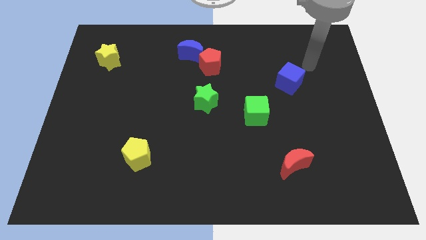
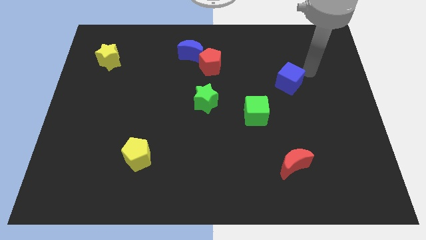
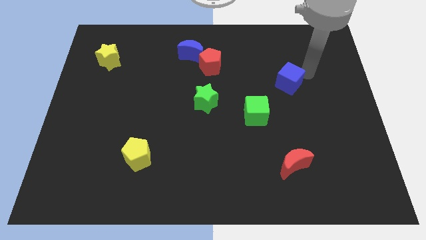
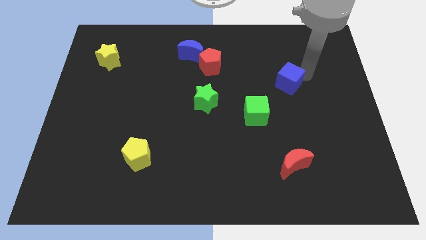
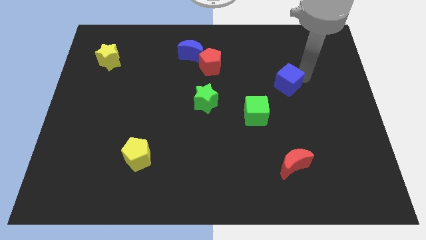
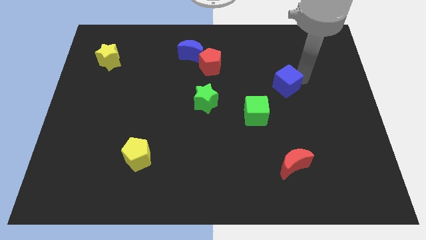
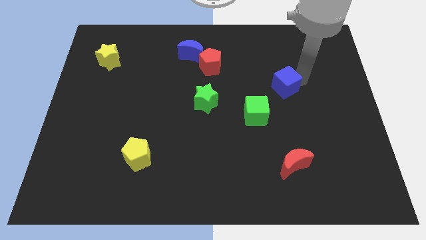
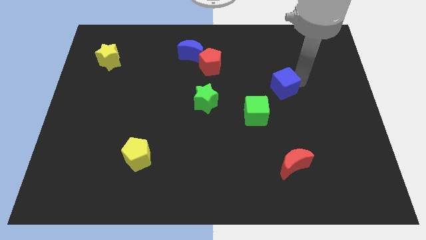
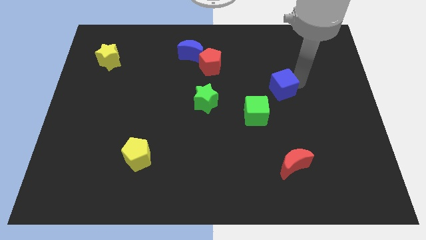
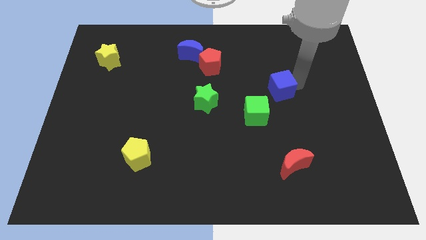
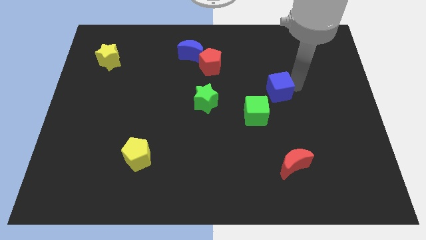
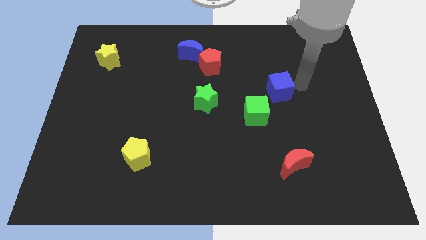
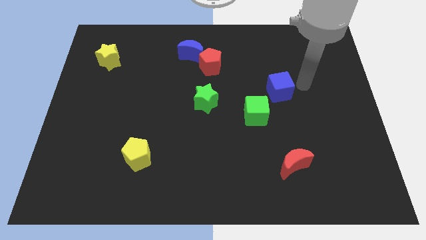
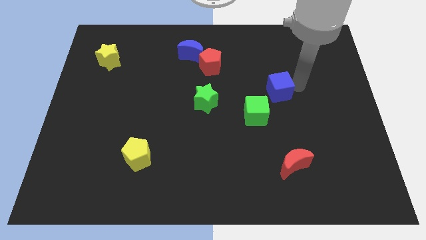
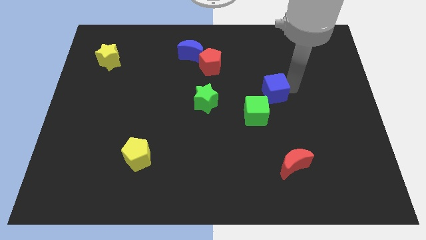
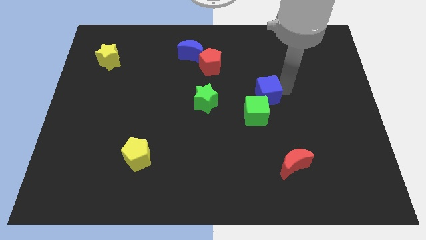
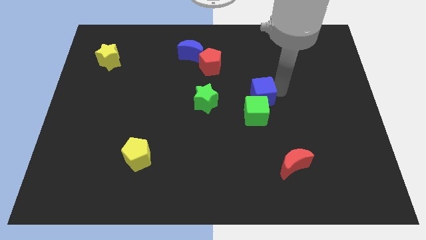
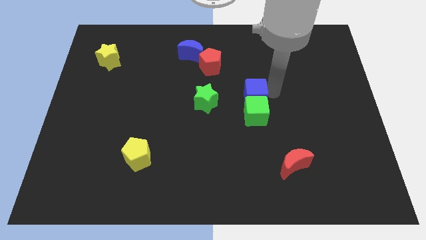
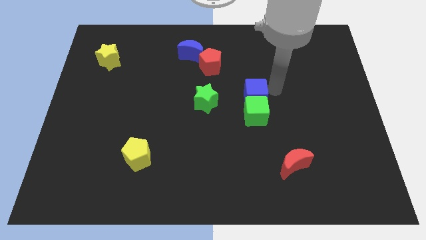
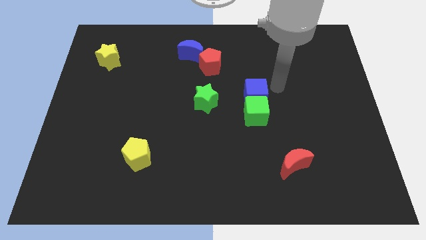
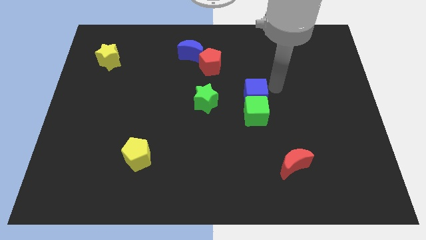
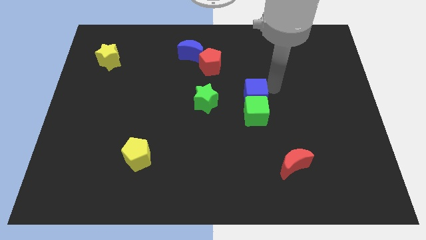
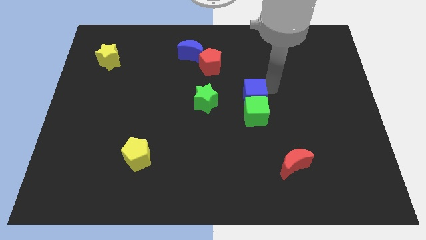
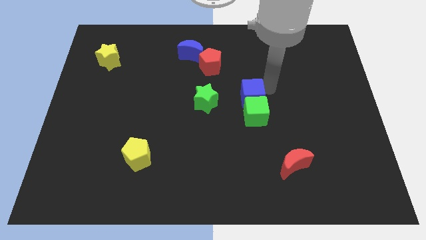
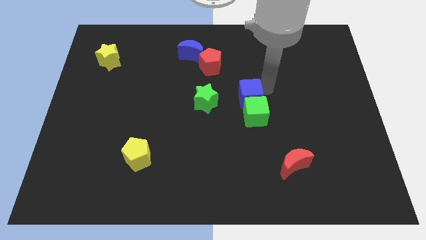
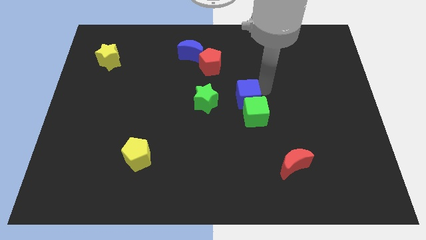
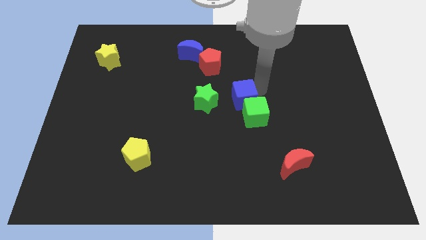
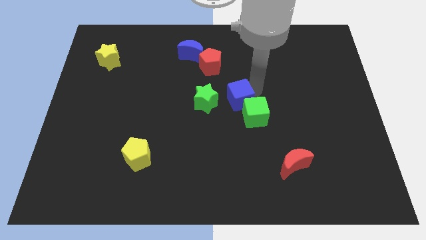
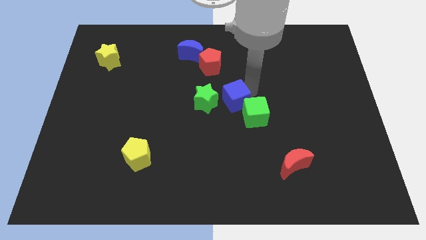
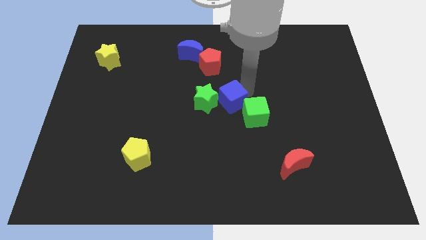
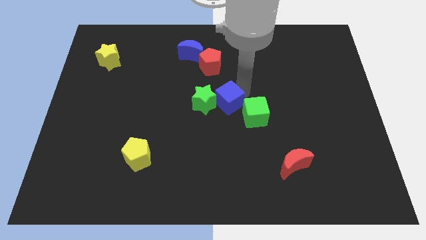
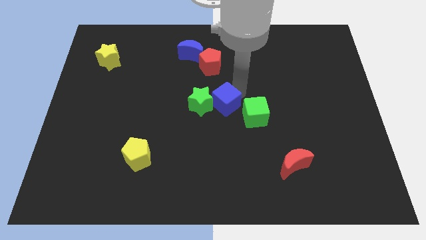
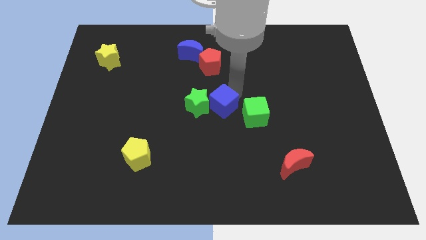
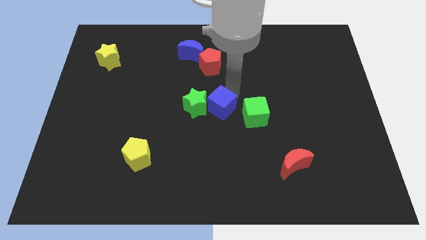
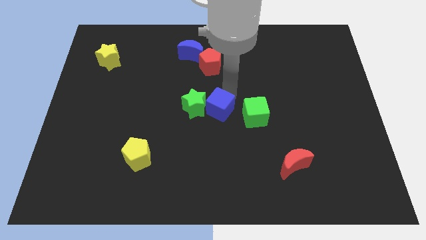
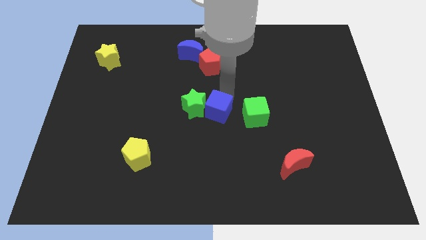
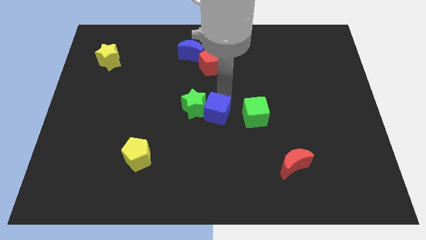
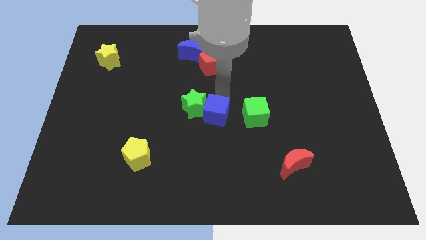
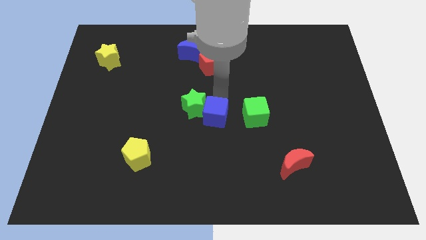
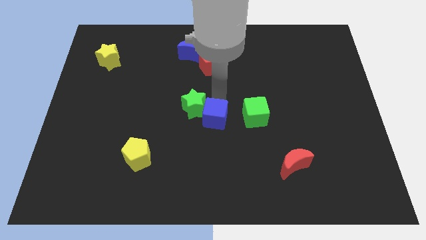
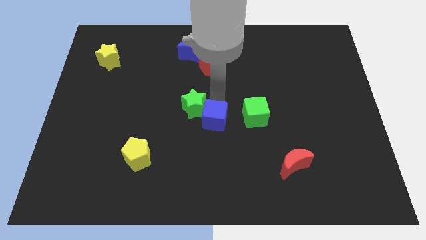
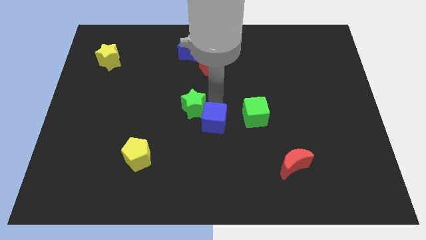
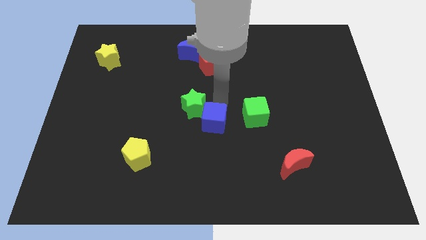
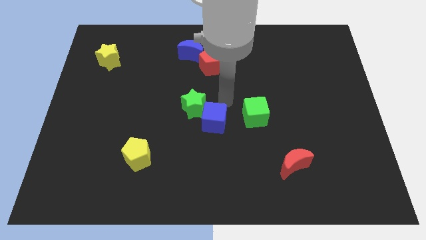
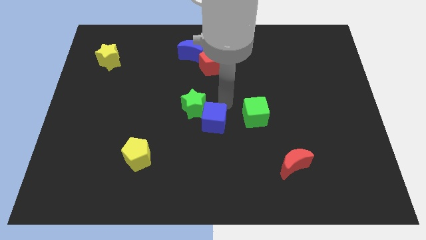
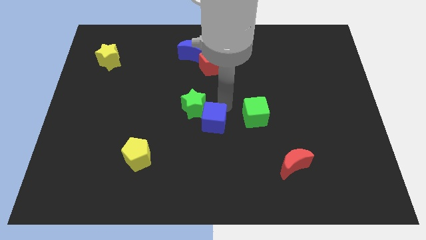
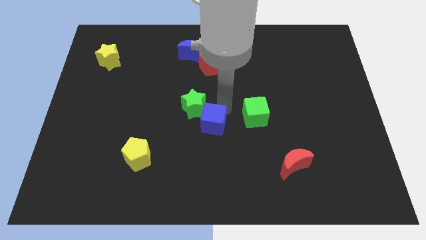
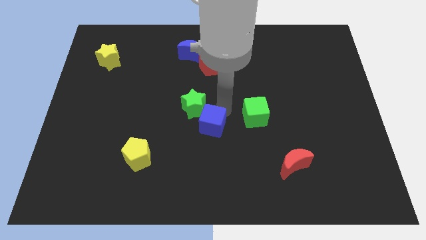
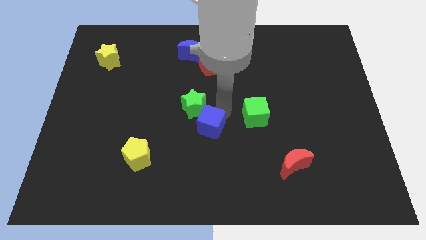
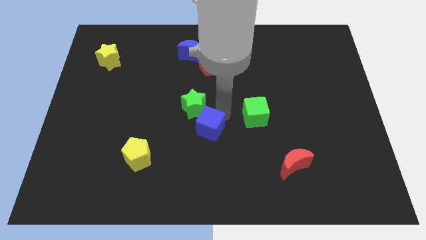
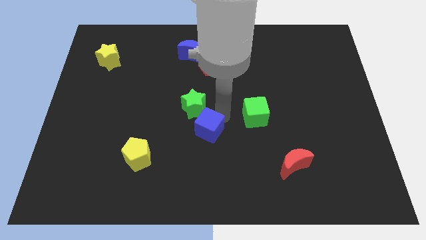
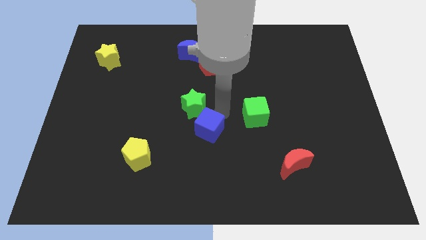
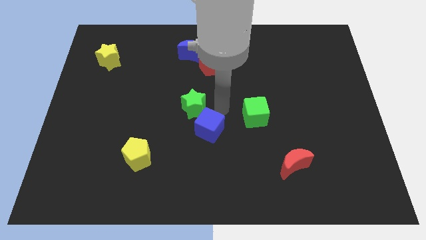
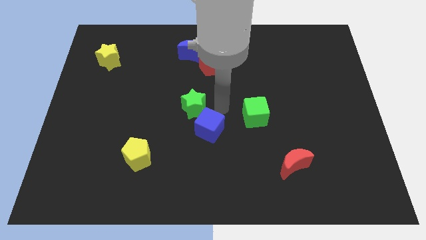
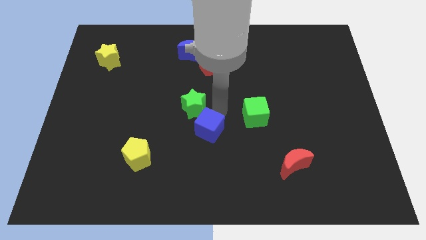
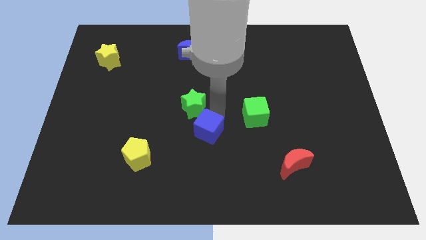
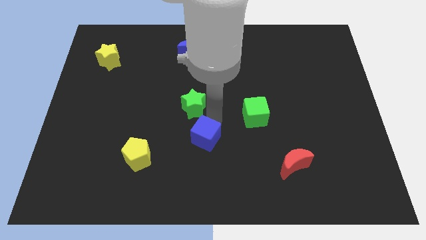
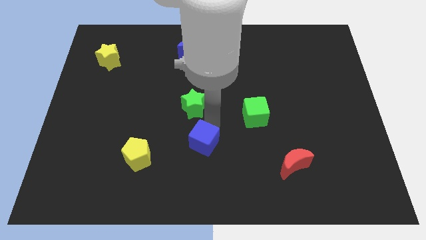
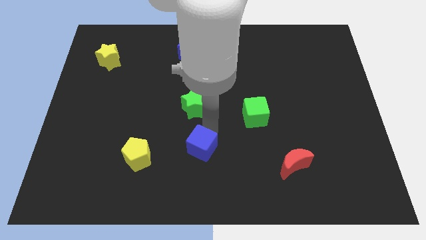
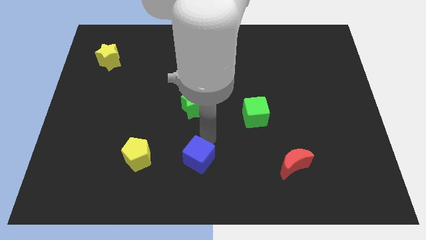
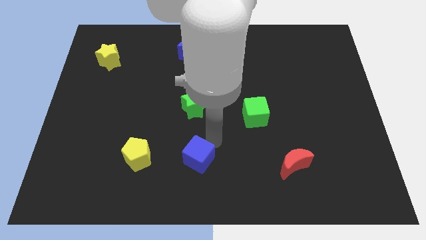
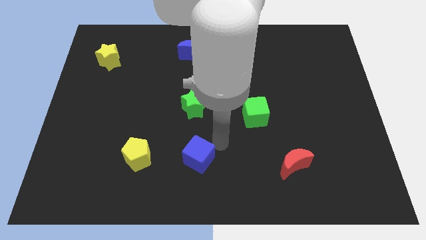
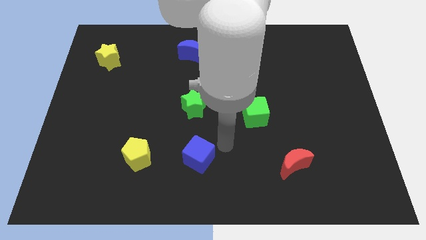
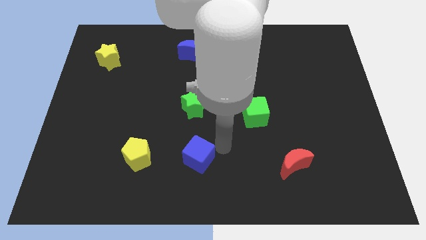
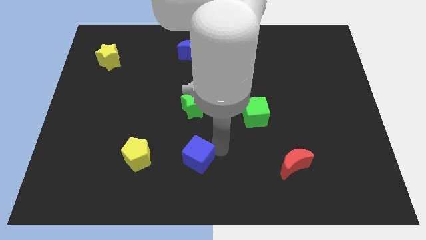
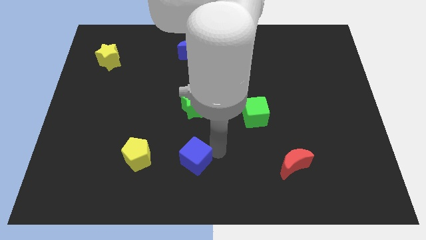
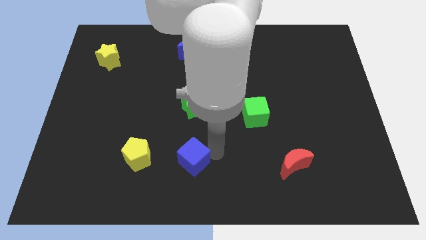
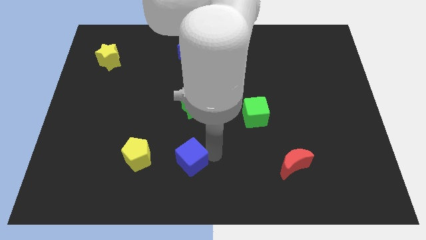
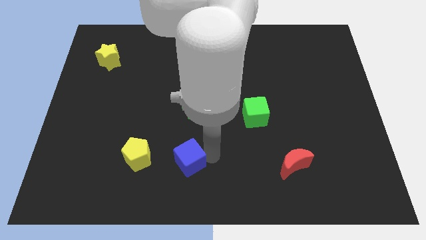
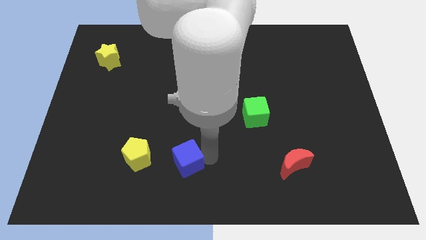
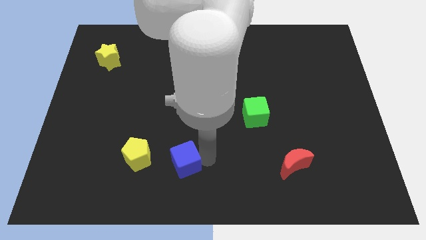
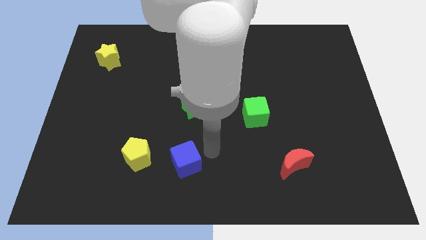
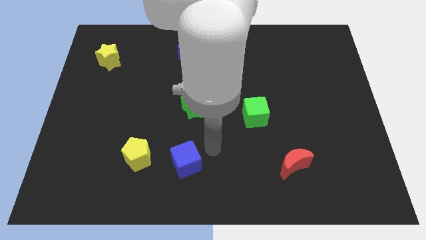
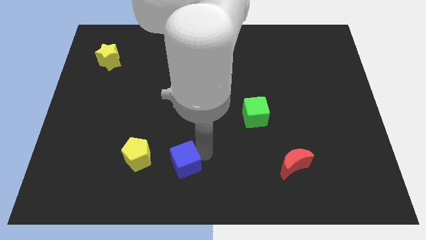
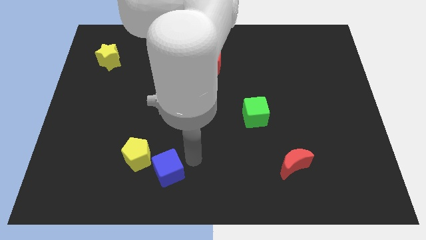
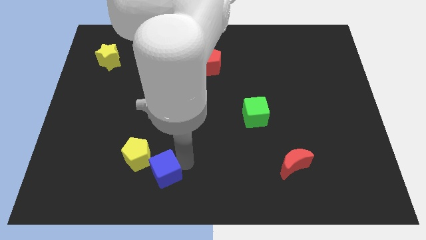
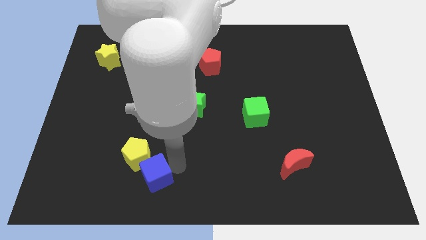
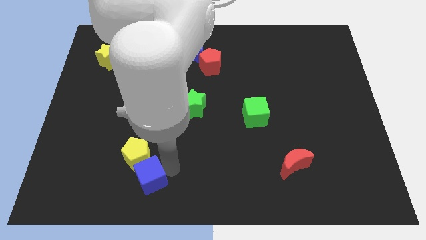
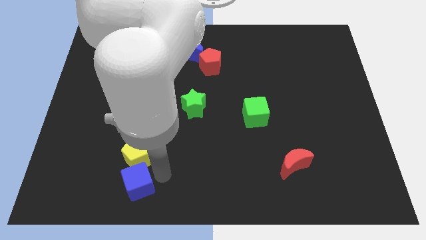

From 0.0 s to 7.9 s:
push the blue cube to the bottom left of the yellow pentagon
